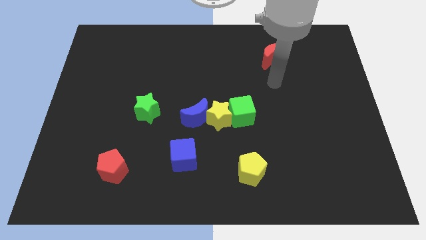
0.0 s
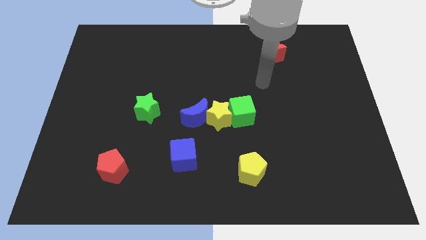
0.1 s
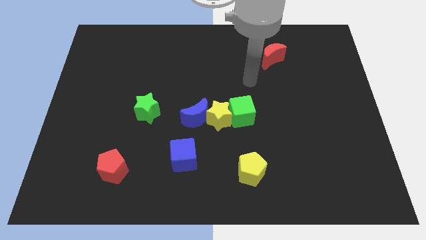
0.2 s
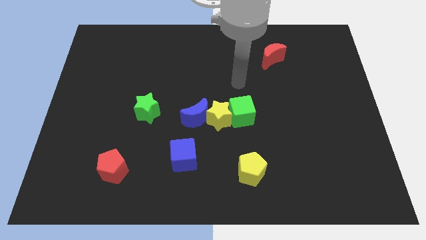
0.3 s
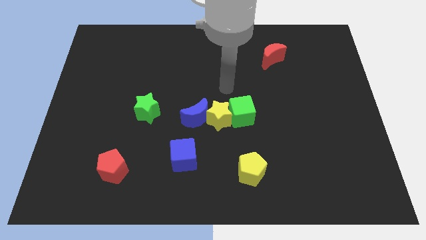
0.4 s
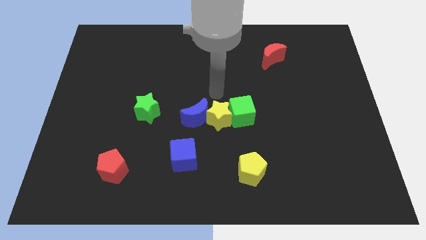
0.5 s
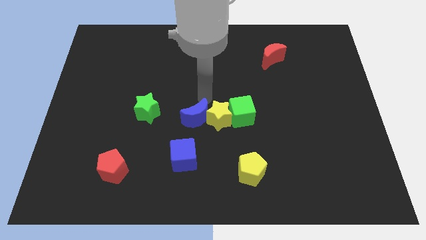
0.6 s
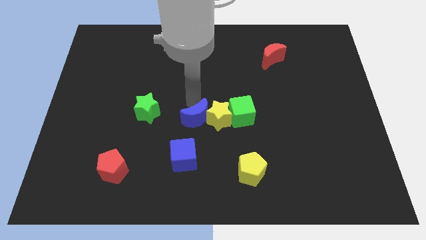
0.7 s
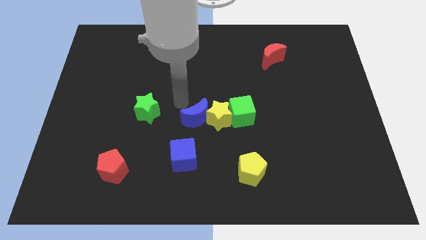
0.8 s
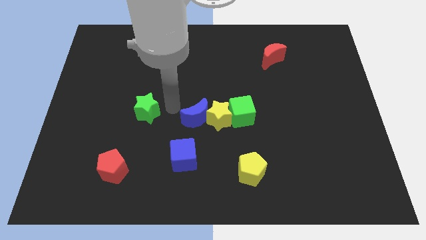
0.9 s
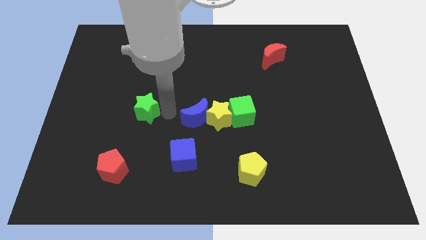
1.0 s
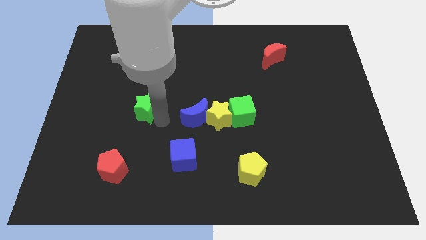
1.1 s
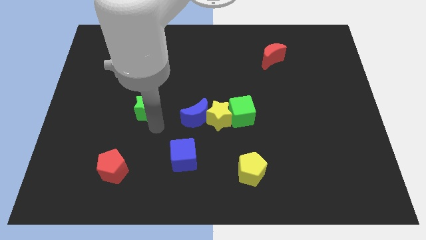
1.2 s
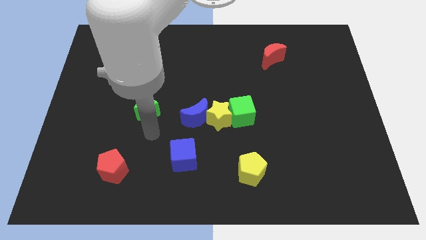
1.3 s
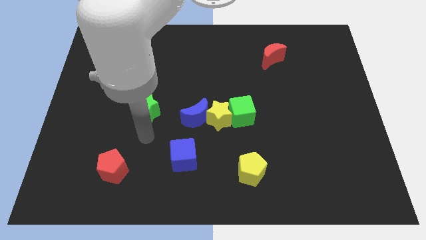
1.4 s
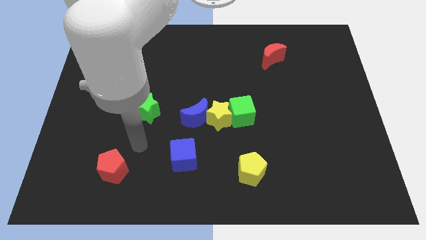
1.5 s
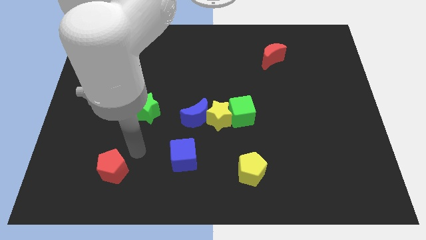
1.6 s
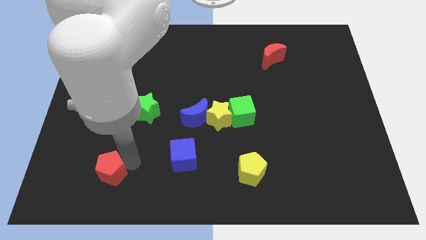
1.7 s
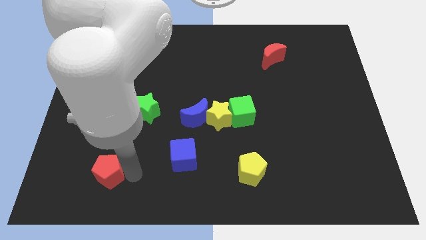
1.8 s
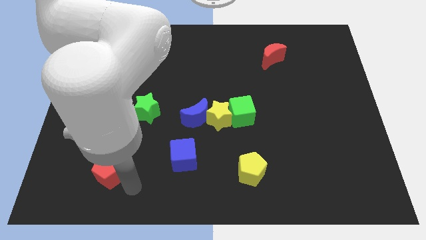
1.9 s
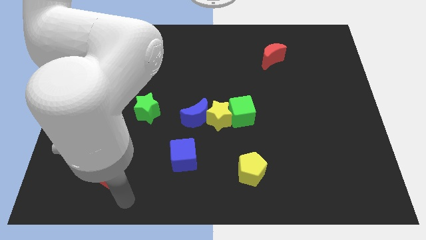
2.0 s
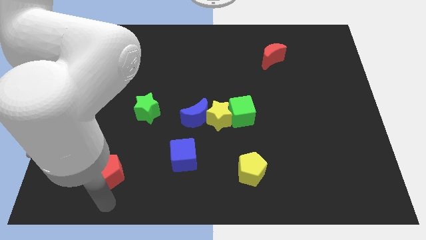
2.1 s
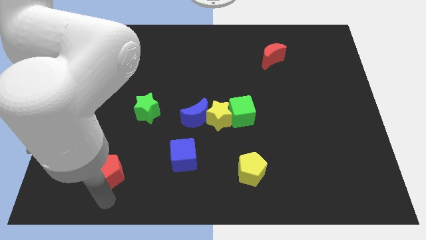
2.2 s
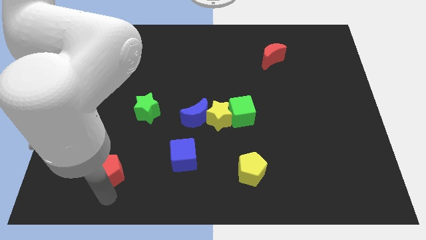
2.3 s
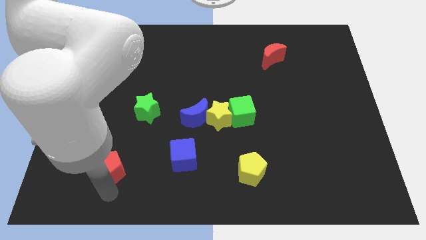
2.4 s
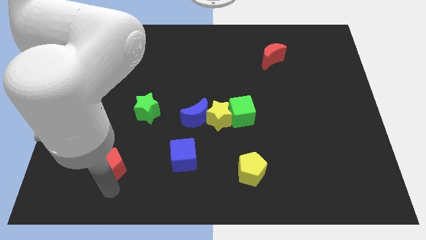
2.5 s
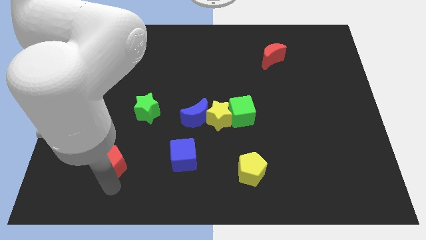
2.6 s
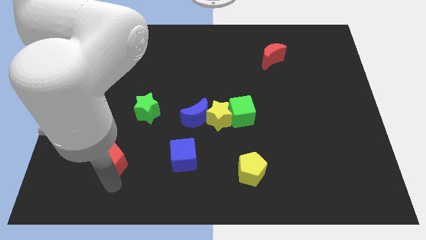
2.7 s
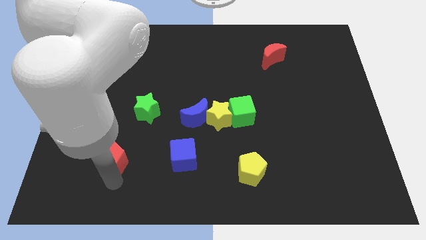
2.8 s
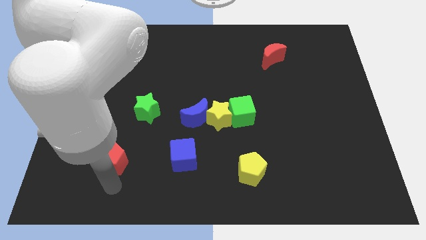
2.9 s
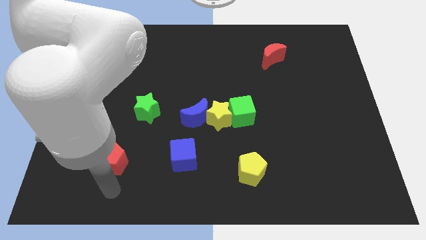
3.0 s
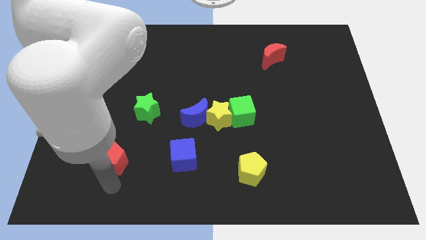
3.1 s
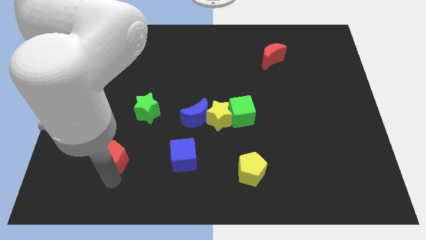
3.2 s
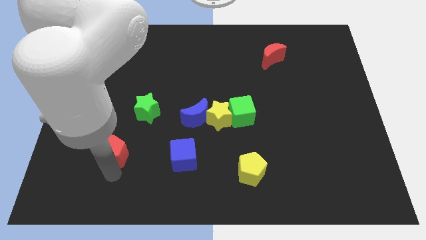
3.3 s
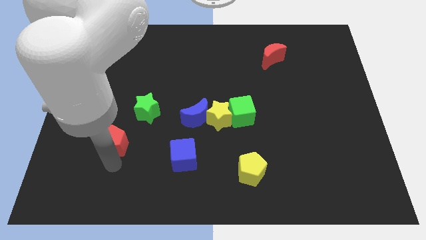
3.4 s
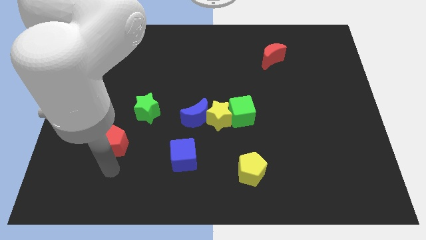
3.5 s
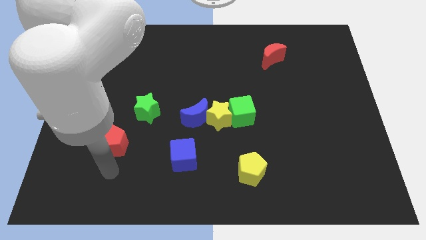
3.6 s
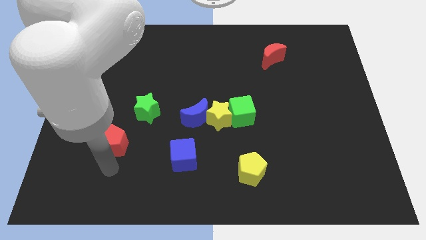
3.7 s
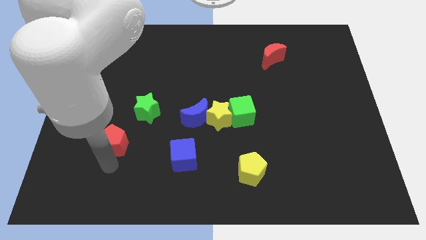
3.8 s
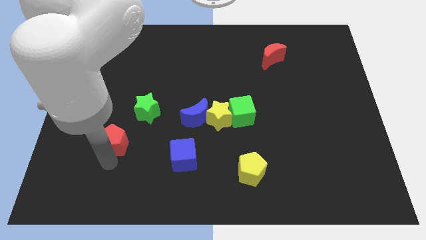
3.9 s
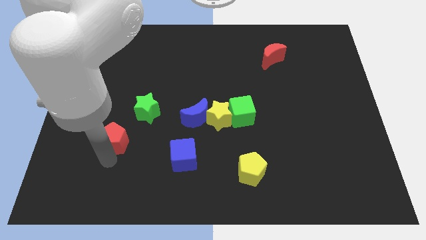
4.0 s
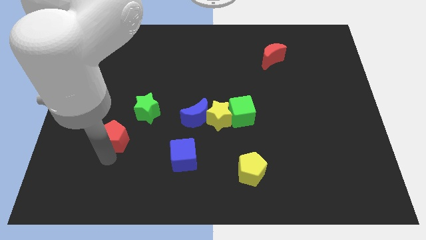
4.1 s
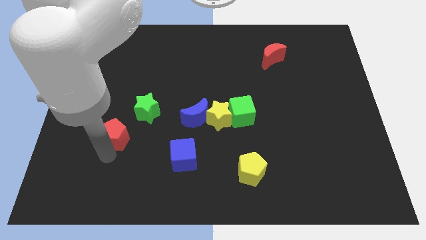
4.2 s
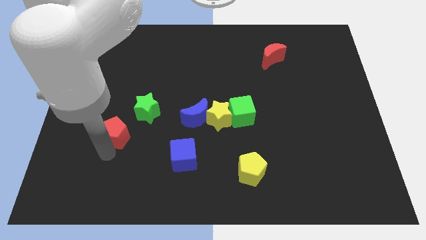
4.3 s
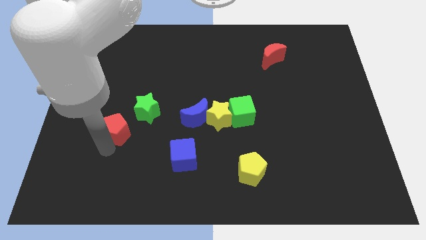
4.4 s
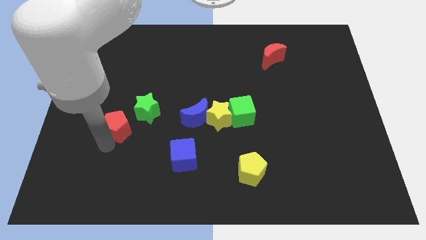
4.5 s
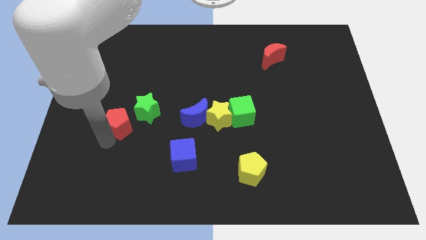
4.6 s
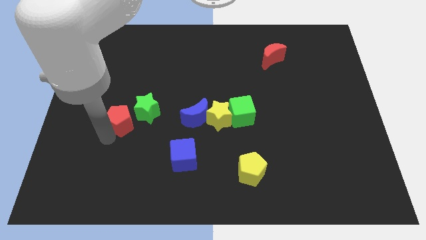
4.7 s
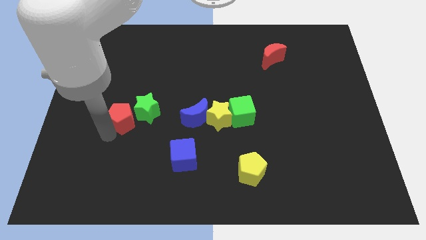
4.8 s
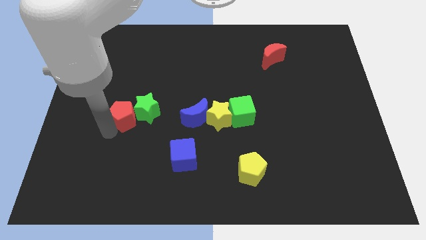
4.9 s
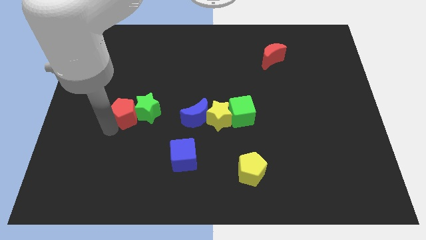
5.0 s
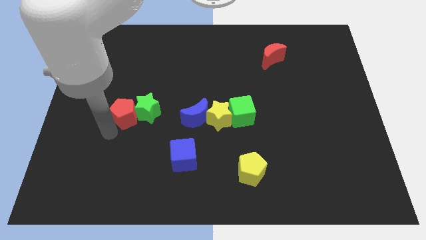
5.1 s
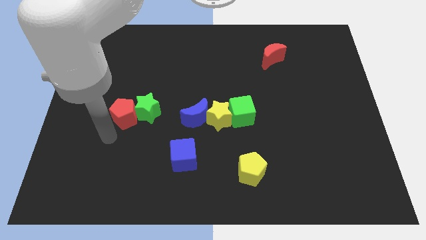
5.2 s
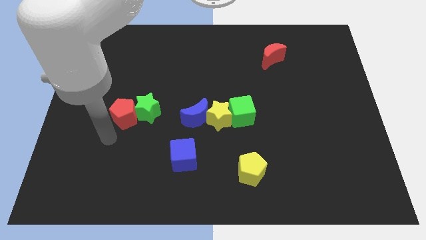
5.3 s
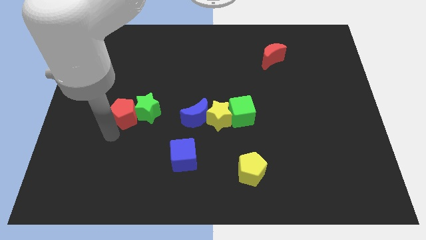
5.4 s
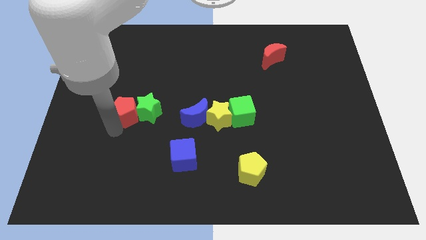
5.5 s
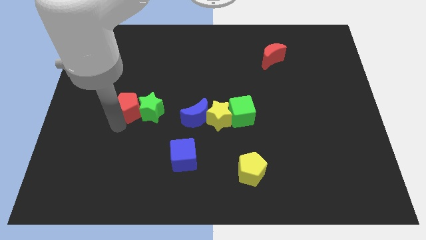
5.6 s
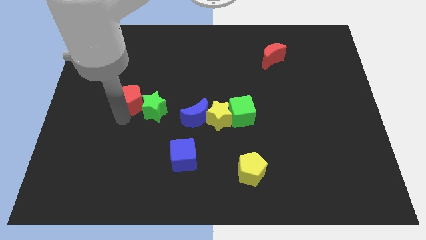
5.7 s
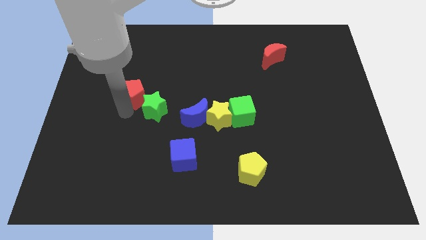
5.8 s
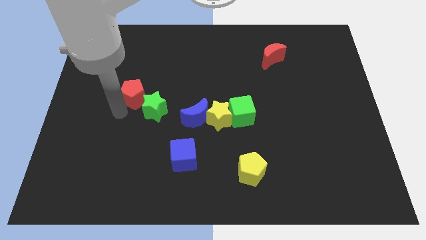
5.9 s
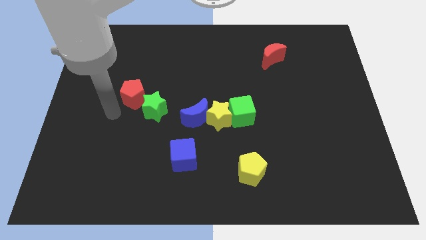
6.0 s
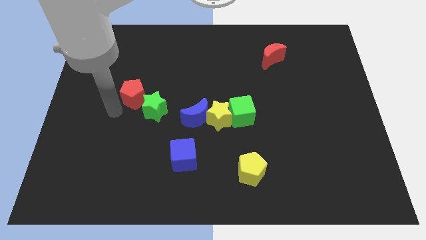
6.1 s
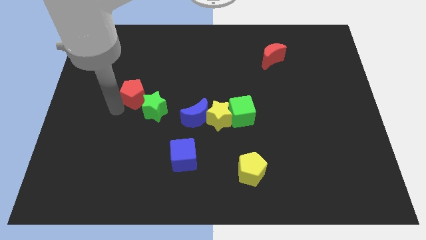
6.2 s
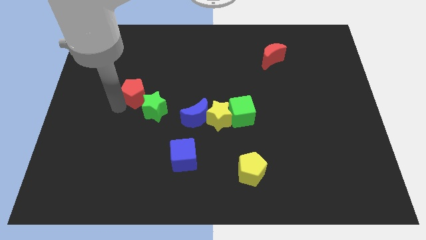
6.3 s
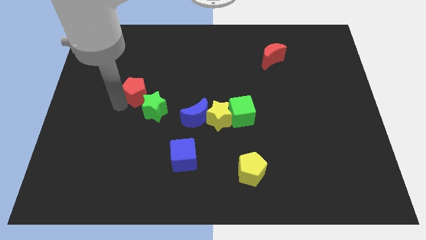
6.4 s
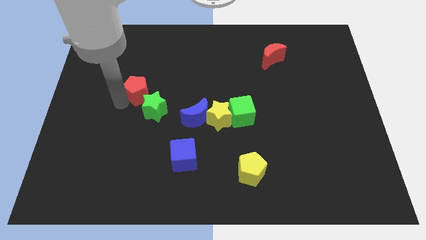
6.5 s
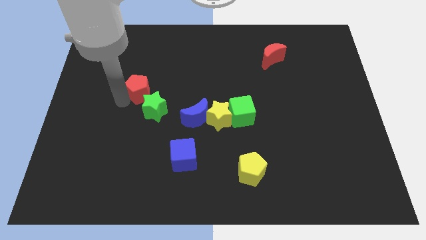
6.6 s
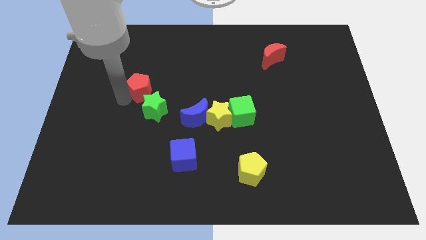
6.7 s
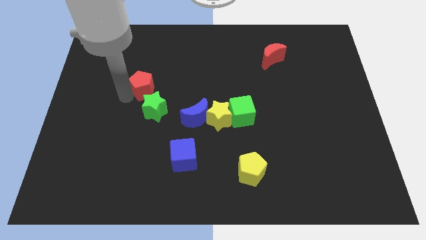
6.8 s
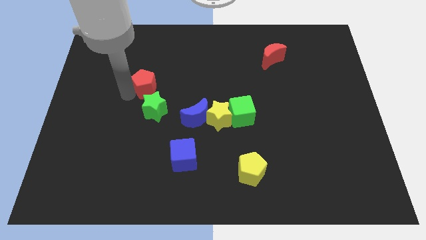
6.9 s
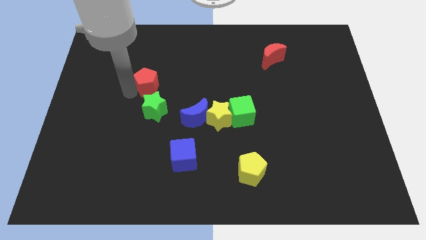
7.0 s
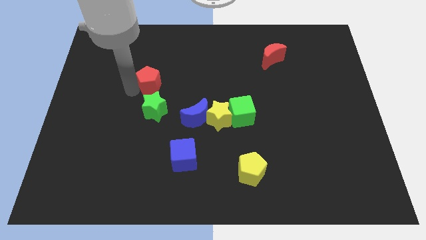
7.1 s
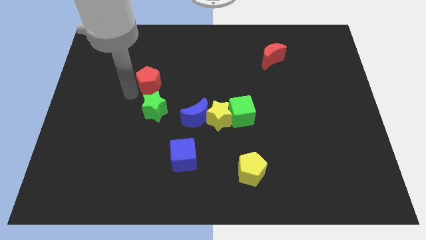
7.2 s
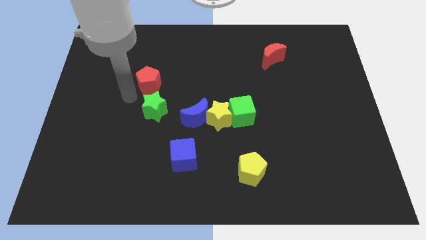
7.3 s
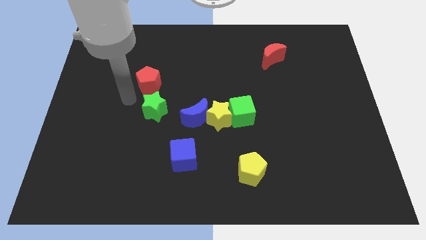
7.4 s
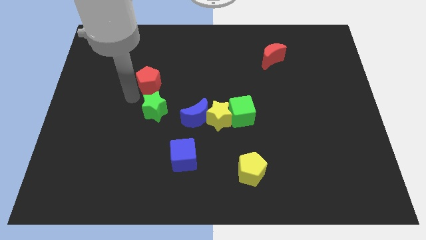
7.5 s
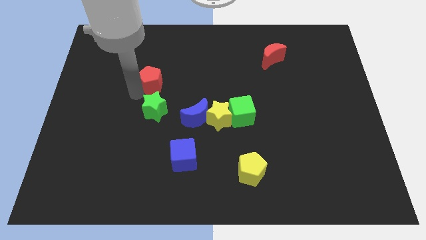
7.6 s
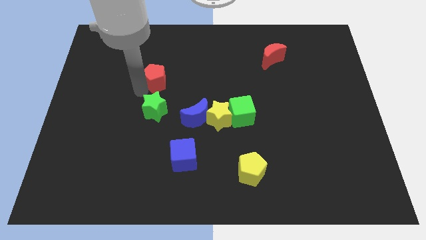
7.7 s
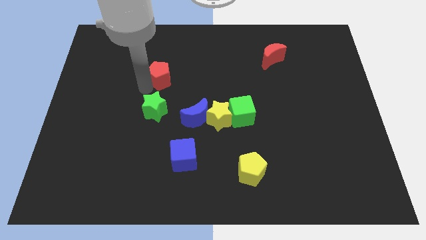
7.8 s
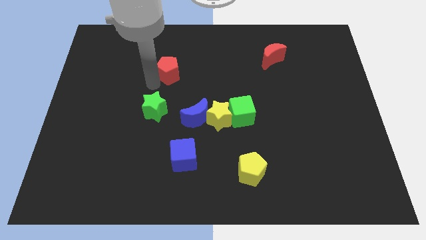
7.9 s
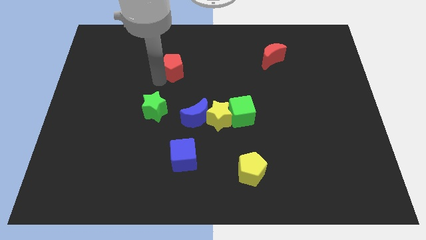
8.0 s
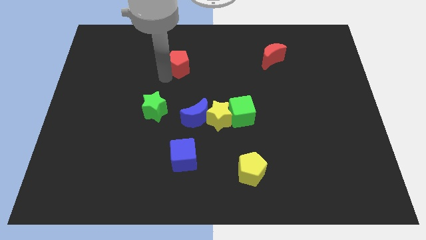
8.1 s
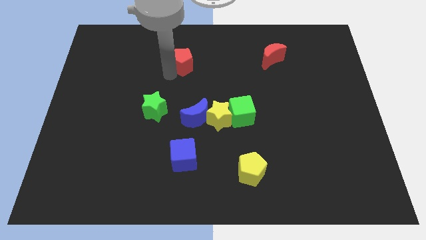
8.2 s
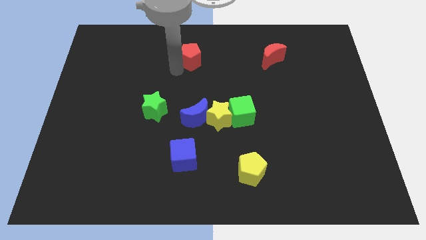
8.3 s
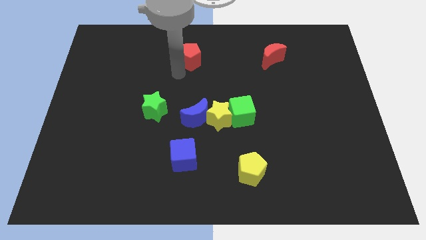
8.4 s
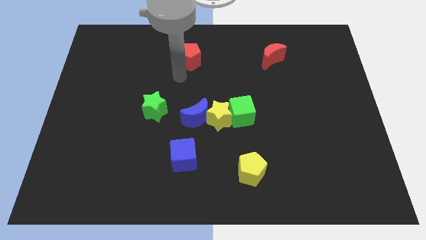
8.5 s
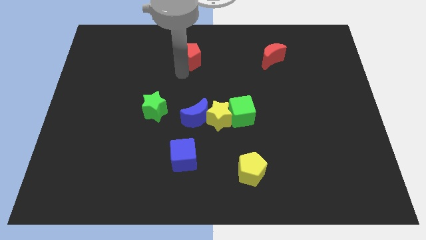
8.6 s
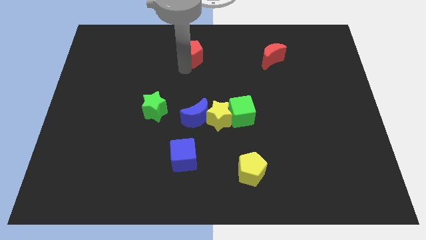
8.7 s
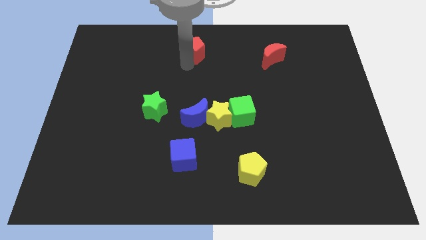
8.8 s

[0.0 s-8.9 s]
push the red pentagon to the top side
